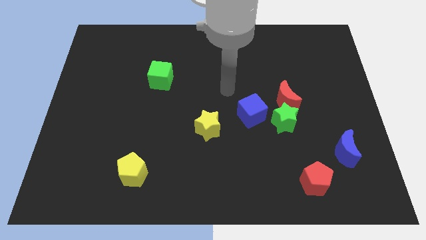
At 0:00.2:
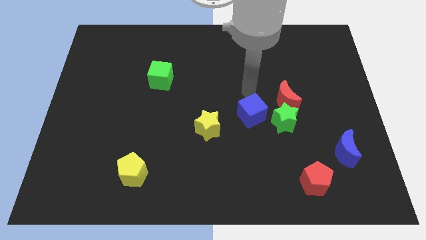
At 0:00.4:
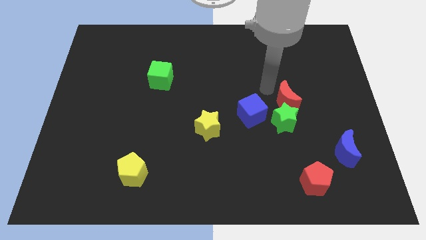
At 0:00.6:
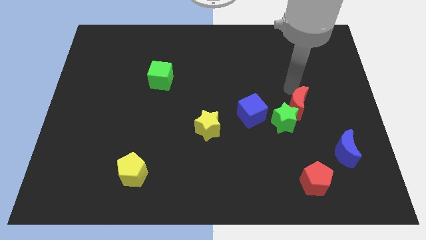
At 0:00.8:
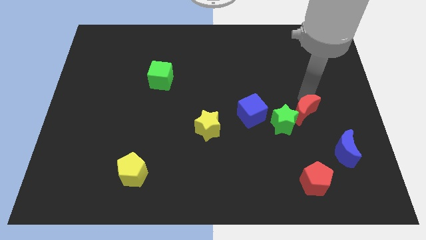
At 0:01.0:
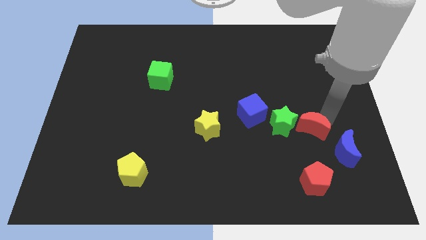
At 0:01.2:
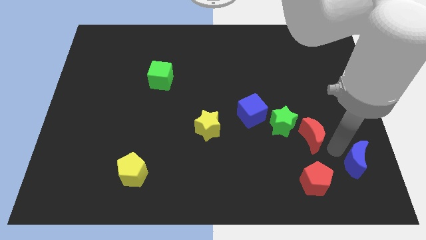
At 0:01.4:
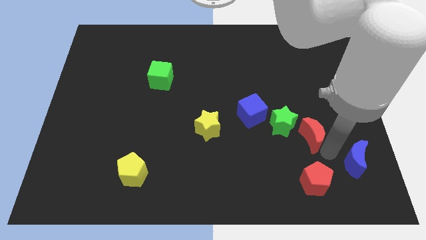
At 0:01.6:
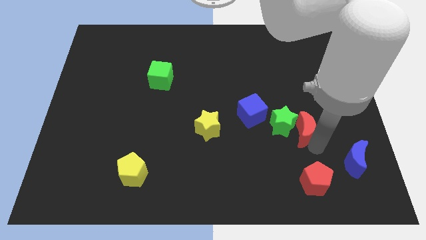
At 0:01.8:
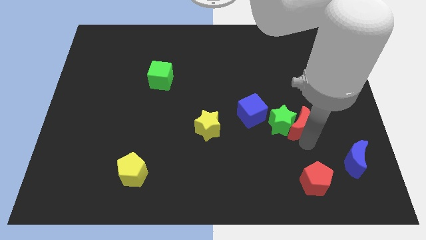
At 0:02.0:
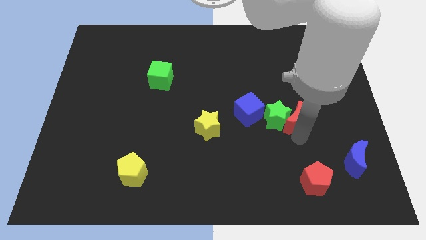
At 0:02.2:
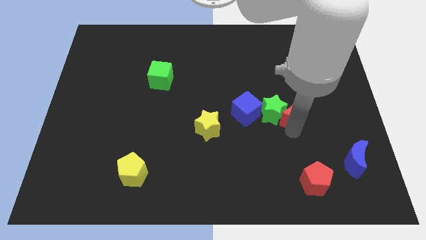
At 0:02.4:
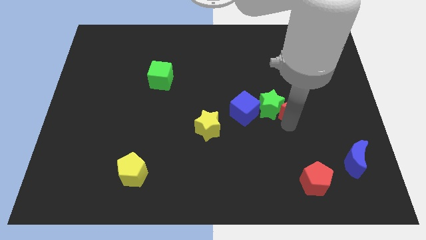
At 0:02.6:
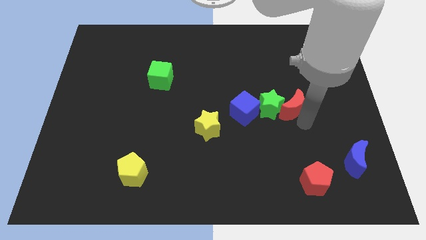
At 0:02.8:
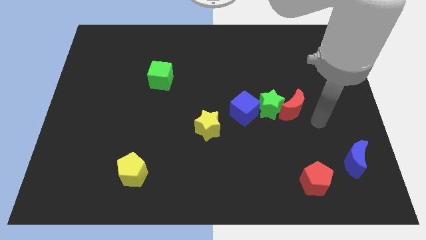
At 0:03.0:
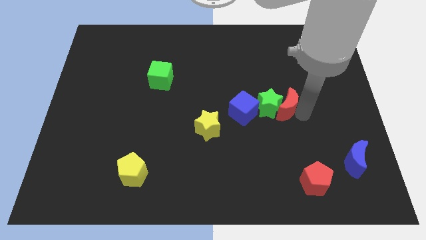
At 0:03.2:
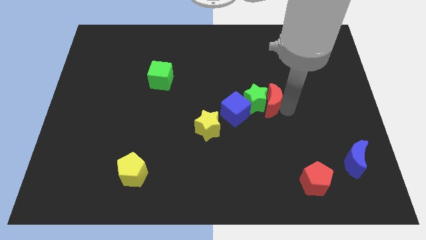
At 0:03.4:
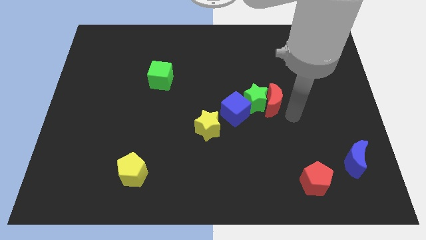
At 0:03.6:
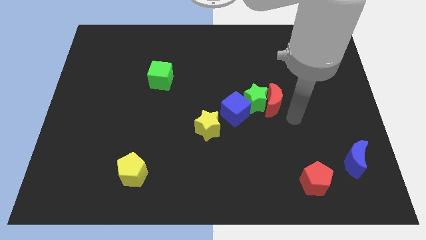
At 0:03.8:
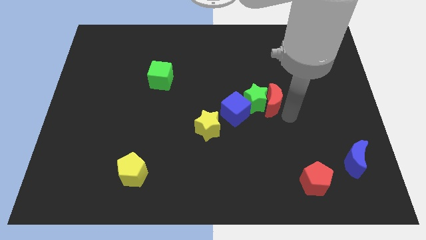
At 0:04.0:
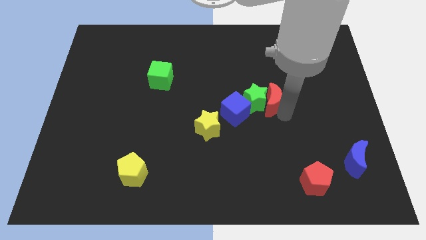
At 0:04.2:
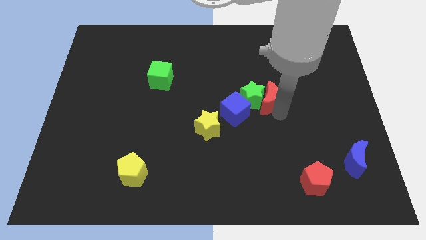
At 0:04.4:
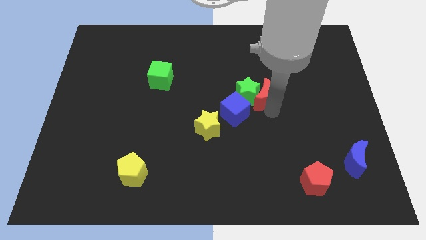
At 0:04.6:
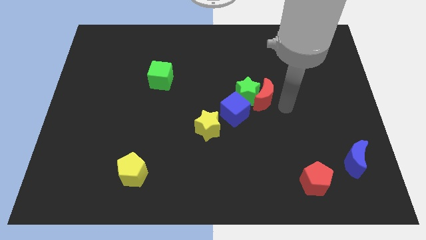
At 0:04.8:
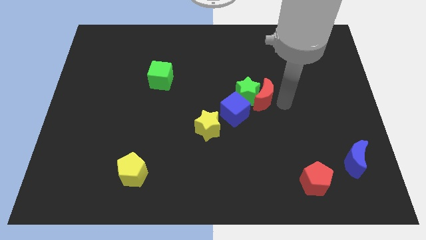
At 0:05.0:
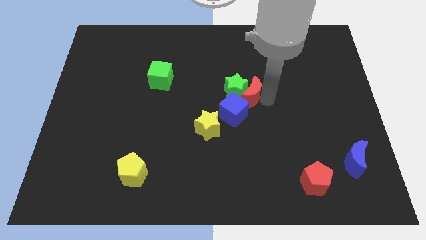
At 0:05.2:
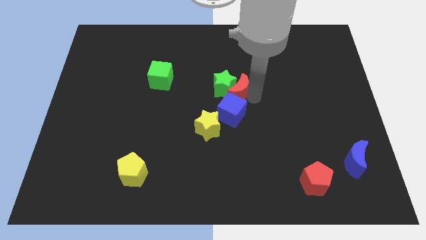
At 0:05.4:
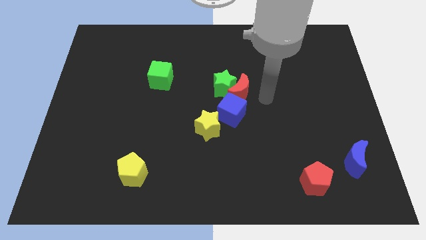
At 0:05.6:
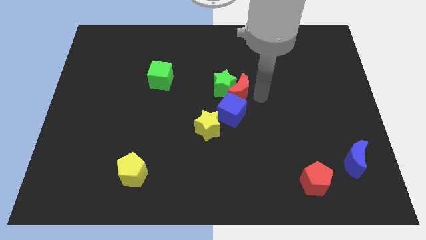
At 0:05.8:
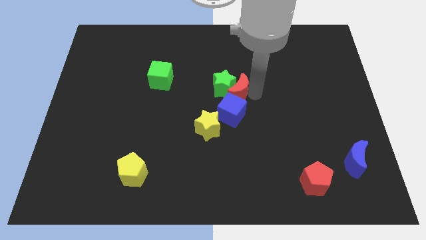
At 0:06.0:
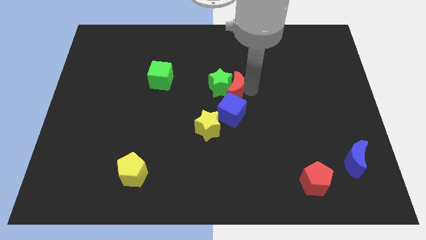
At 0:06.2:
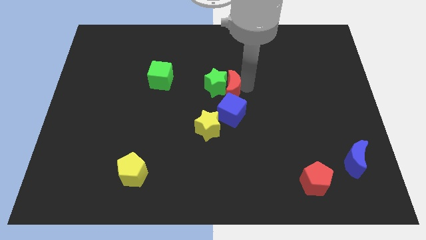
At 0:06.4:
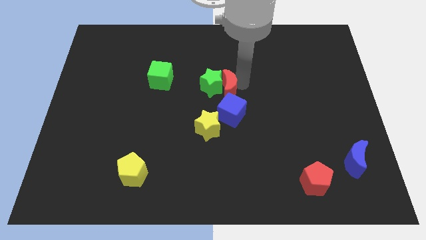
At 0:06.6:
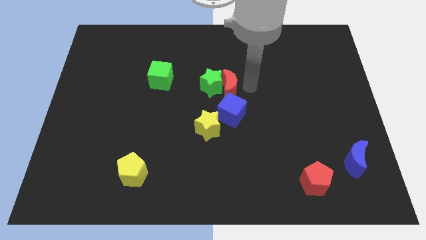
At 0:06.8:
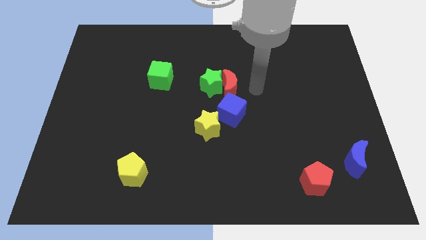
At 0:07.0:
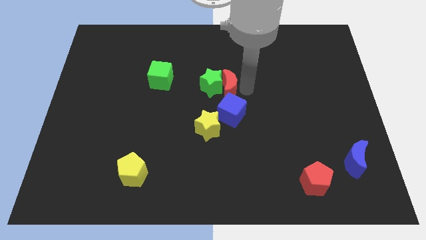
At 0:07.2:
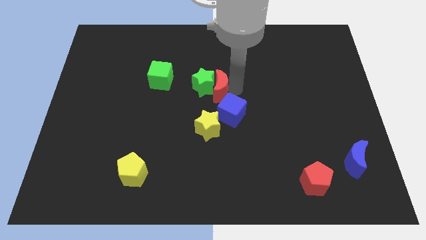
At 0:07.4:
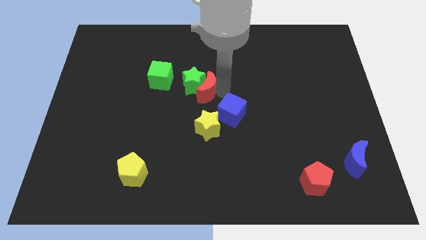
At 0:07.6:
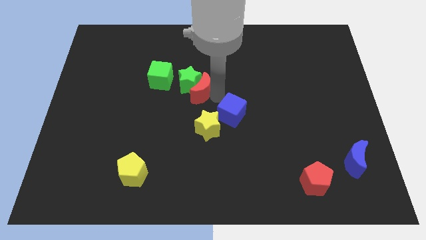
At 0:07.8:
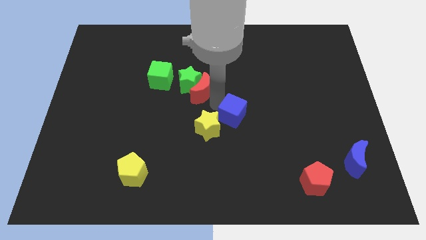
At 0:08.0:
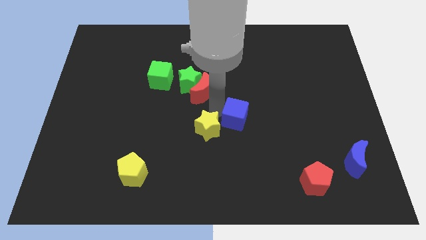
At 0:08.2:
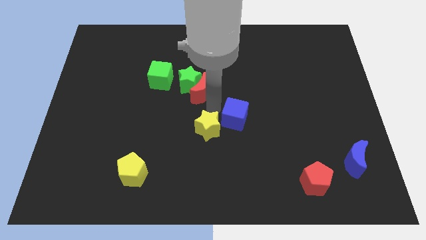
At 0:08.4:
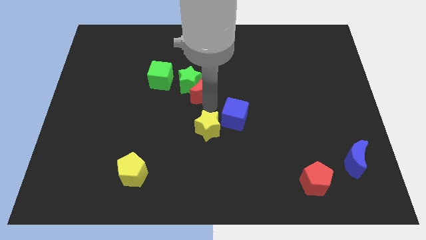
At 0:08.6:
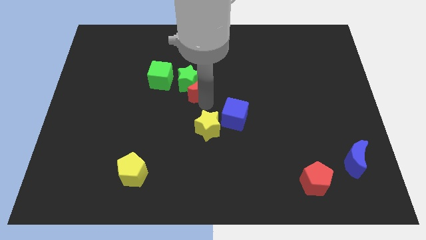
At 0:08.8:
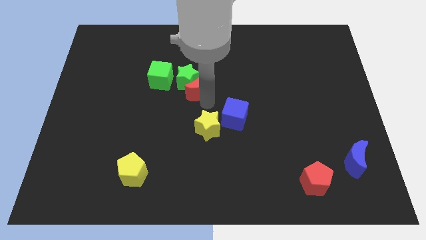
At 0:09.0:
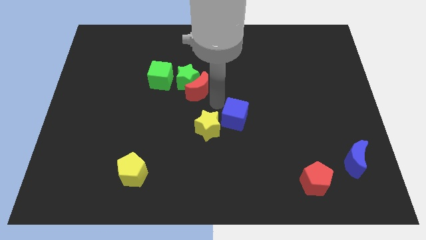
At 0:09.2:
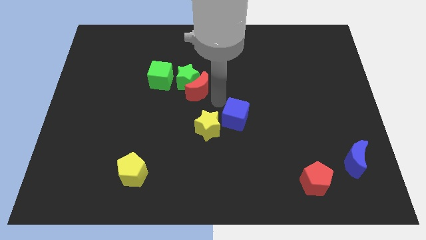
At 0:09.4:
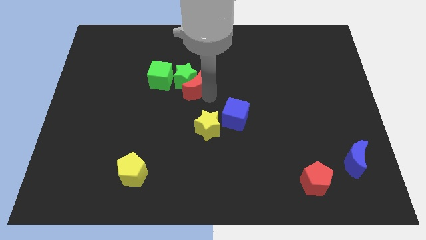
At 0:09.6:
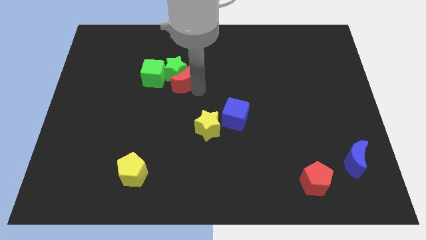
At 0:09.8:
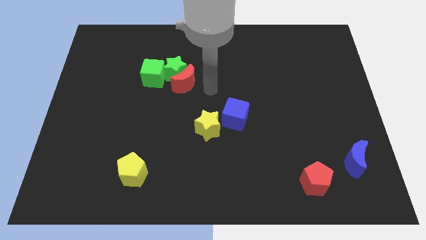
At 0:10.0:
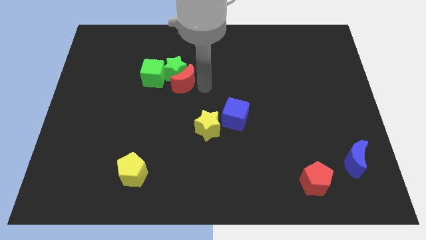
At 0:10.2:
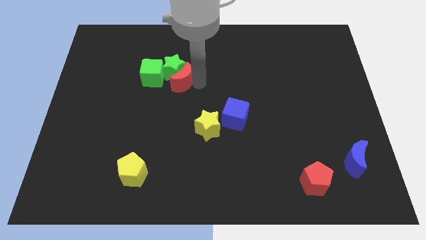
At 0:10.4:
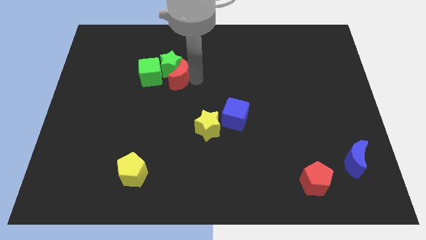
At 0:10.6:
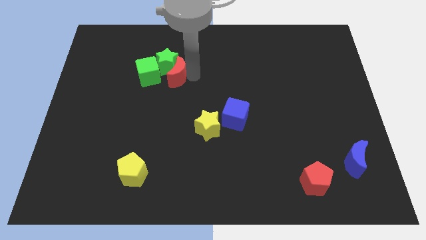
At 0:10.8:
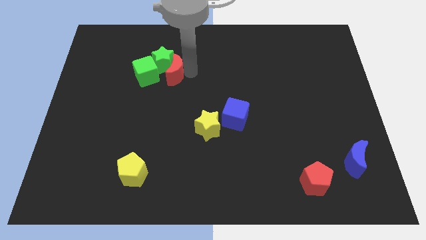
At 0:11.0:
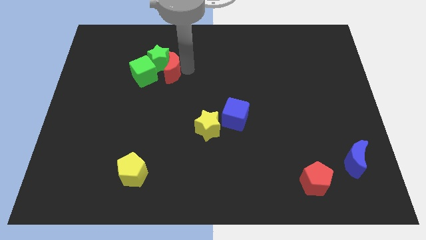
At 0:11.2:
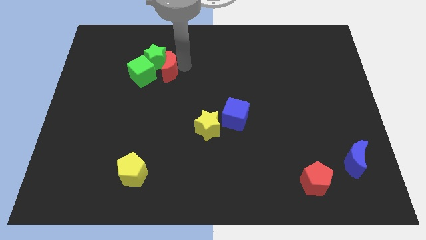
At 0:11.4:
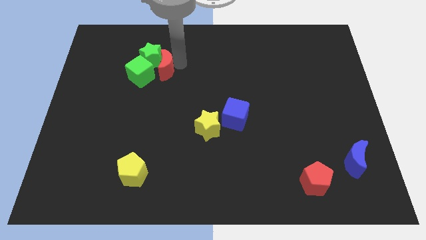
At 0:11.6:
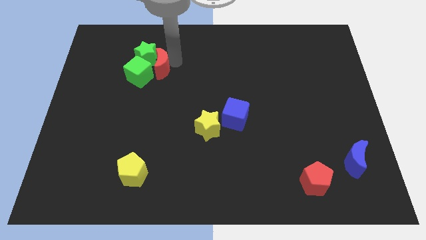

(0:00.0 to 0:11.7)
put the red moon close to the green cube

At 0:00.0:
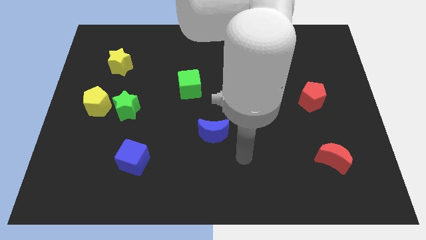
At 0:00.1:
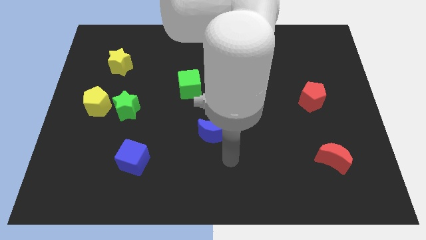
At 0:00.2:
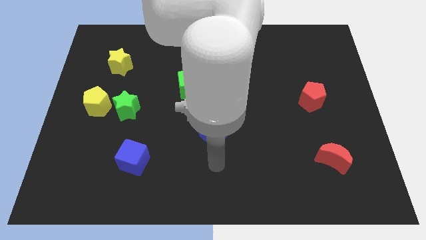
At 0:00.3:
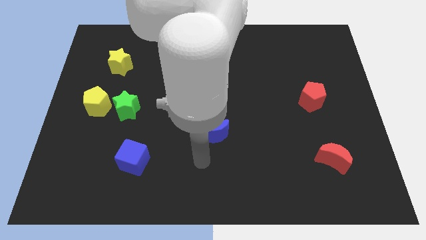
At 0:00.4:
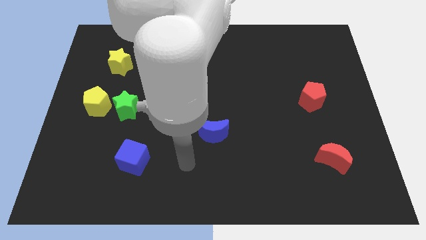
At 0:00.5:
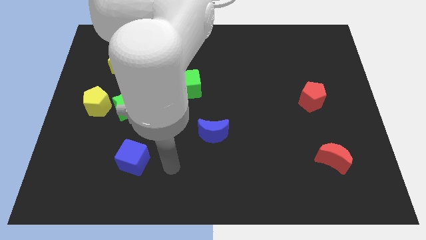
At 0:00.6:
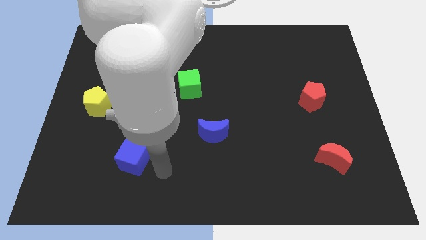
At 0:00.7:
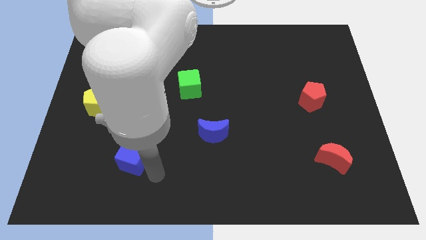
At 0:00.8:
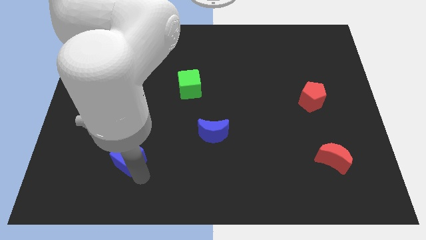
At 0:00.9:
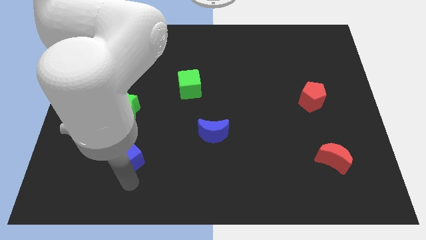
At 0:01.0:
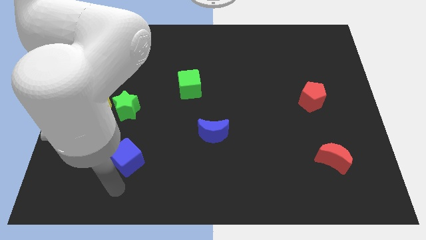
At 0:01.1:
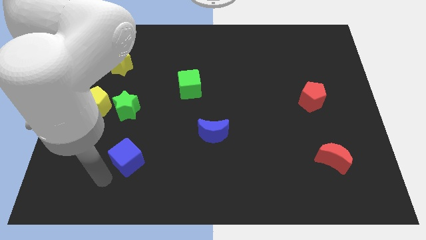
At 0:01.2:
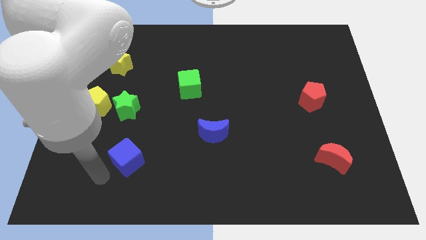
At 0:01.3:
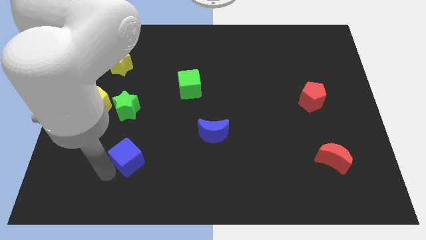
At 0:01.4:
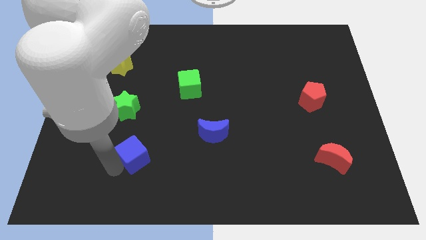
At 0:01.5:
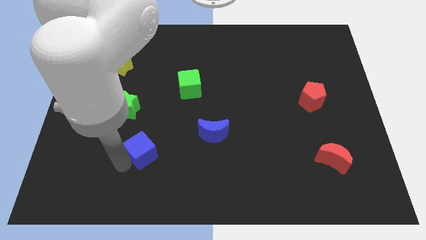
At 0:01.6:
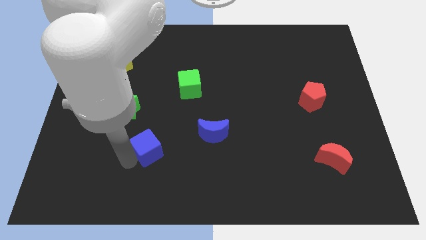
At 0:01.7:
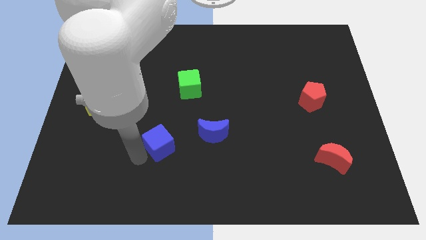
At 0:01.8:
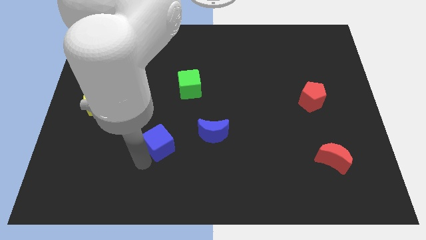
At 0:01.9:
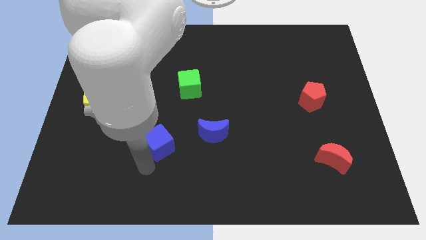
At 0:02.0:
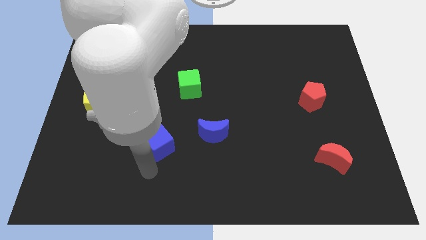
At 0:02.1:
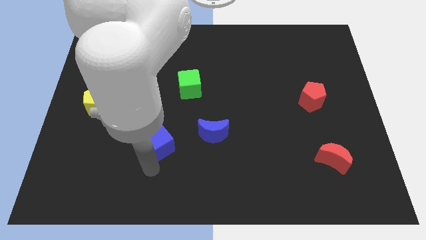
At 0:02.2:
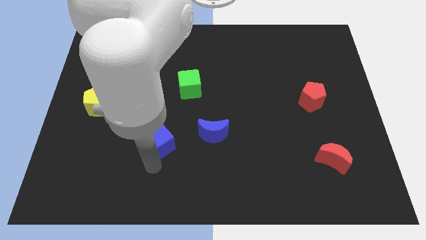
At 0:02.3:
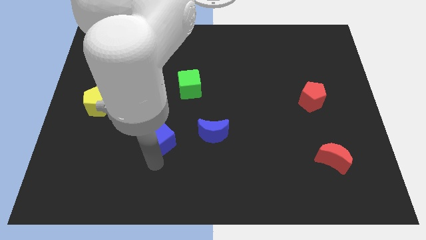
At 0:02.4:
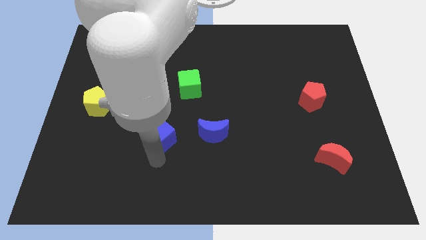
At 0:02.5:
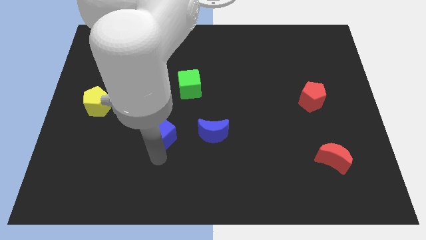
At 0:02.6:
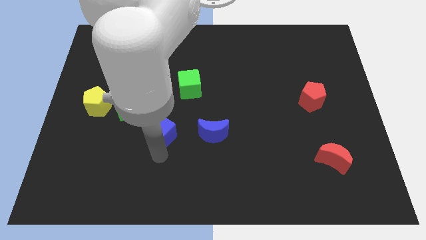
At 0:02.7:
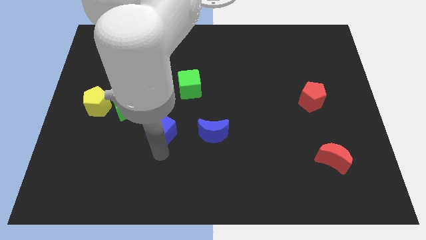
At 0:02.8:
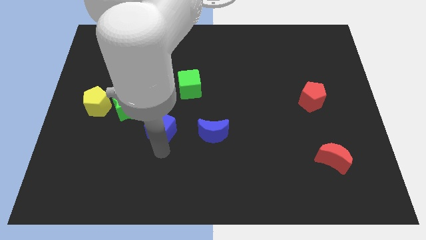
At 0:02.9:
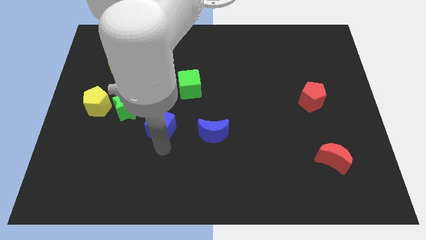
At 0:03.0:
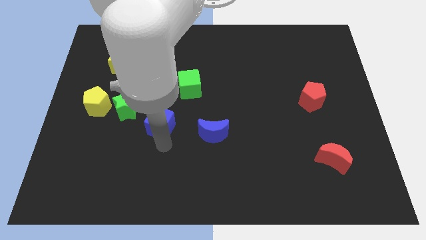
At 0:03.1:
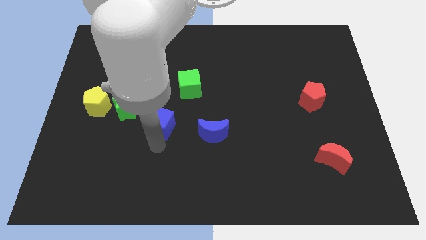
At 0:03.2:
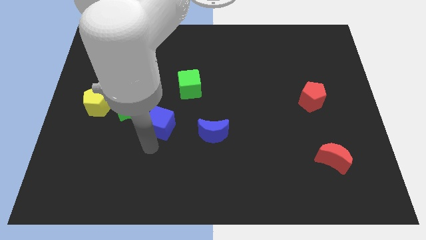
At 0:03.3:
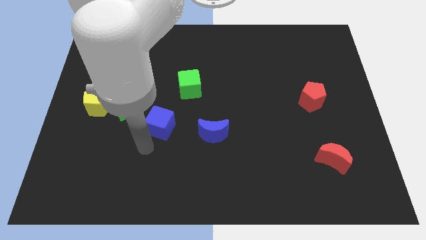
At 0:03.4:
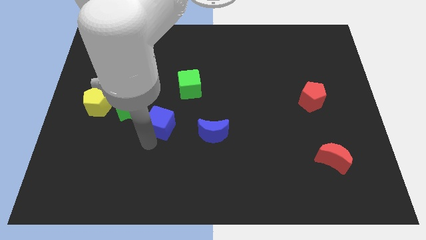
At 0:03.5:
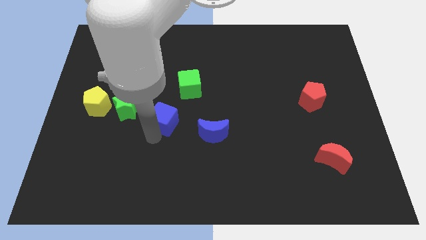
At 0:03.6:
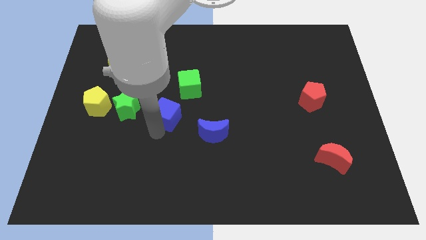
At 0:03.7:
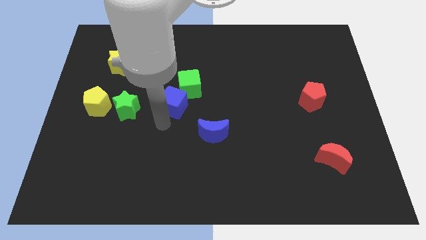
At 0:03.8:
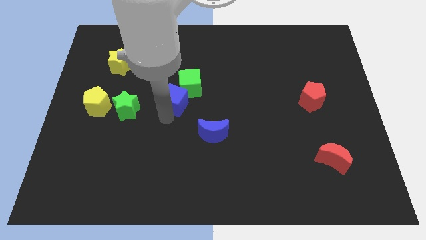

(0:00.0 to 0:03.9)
put the blue cube to the green cube
